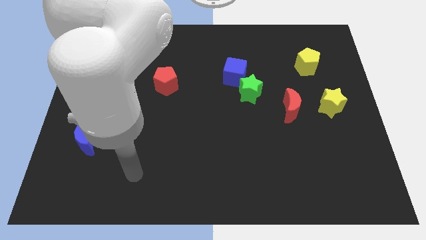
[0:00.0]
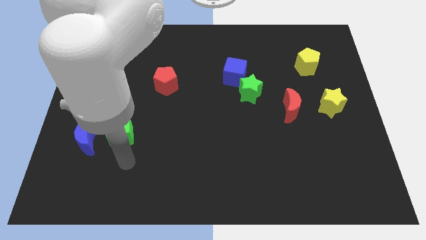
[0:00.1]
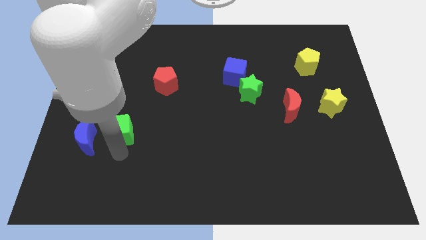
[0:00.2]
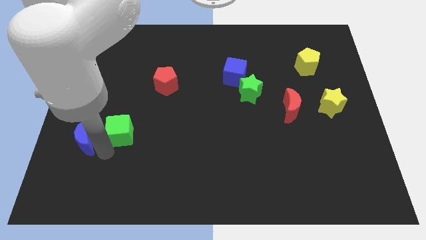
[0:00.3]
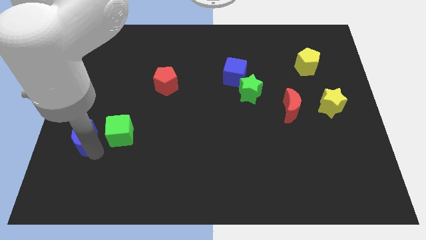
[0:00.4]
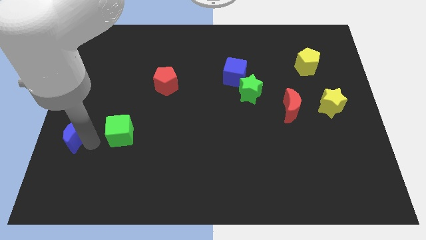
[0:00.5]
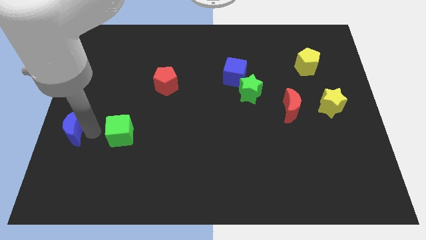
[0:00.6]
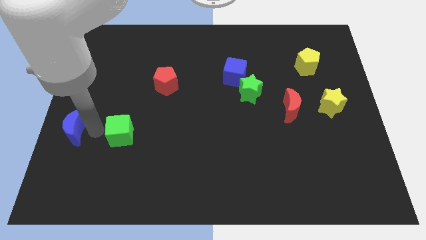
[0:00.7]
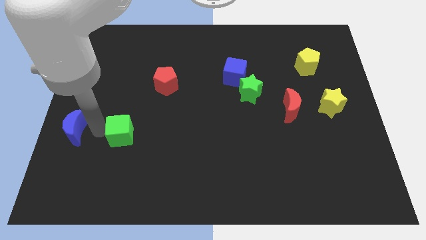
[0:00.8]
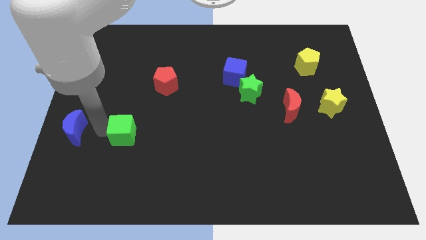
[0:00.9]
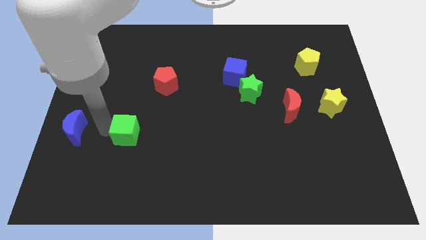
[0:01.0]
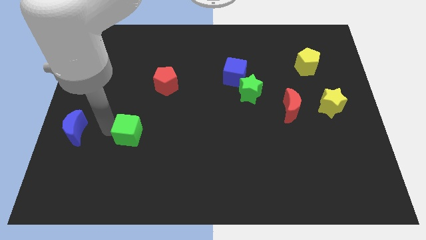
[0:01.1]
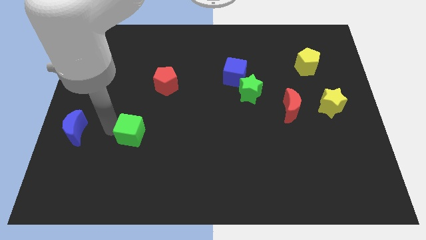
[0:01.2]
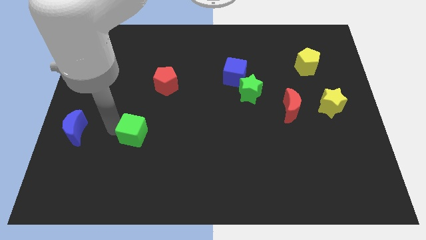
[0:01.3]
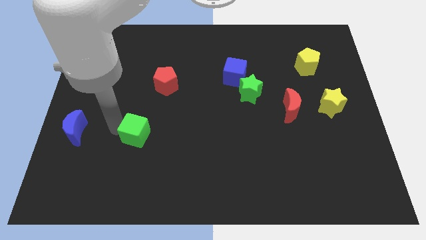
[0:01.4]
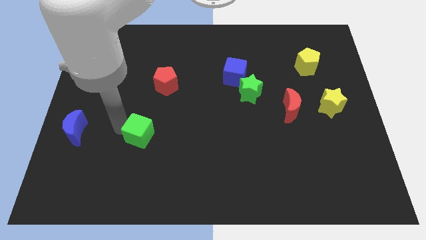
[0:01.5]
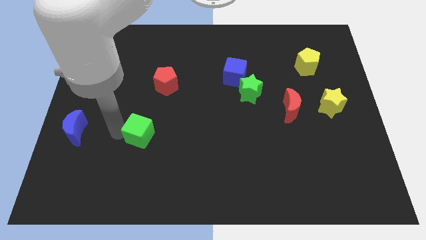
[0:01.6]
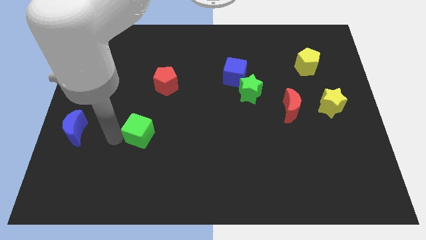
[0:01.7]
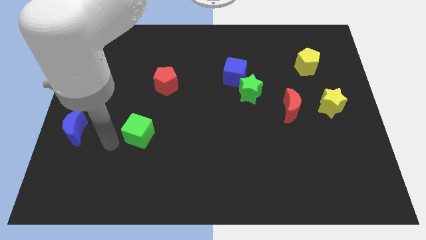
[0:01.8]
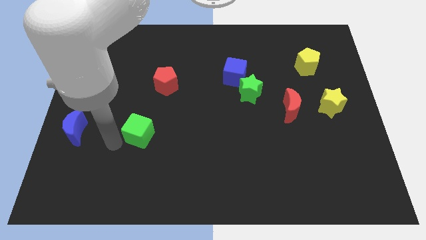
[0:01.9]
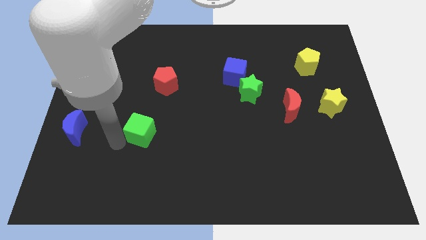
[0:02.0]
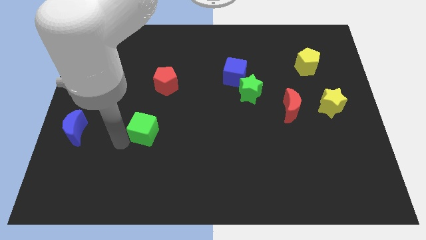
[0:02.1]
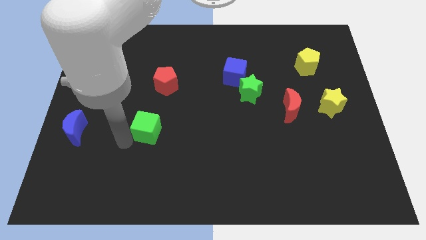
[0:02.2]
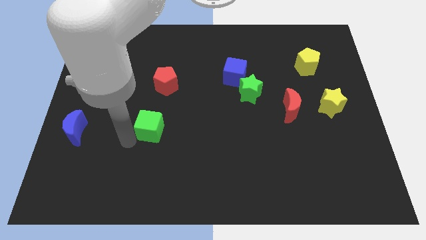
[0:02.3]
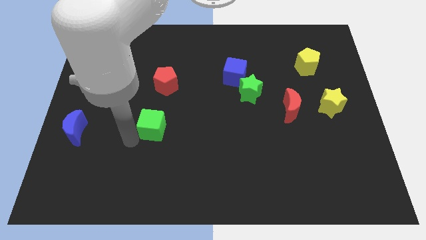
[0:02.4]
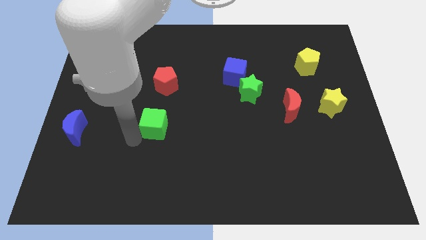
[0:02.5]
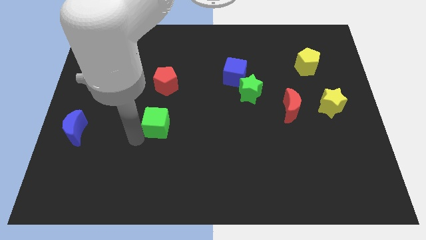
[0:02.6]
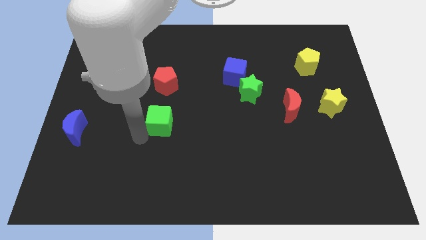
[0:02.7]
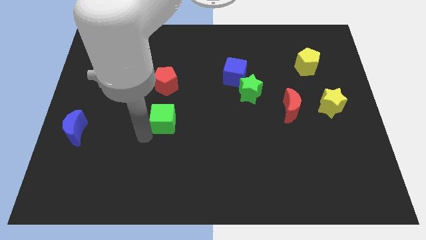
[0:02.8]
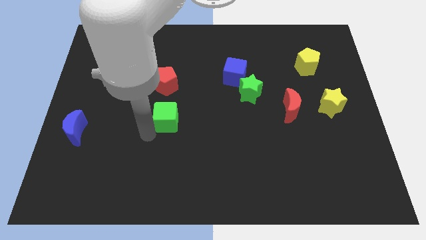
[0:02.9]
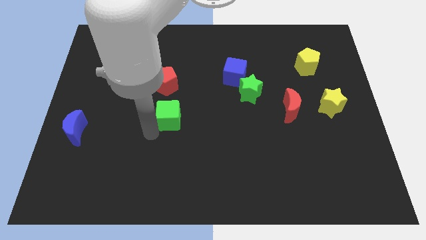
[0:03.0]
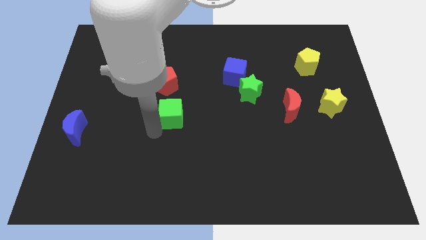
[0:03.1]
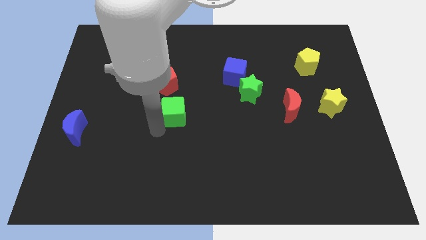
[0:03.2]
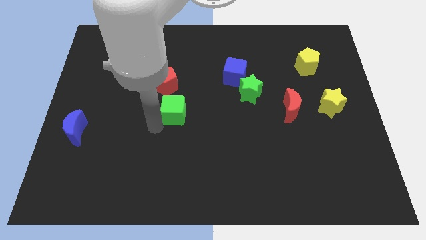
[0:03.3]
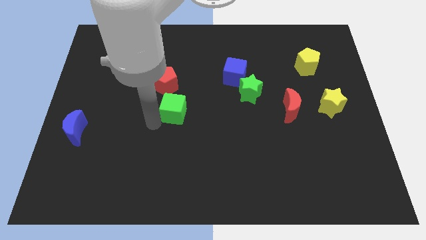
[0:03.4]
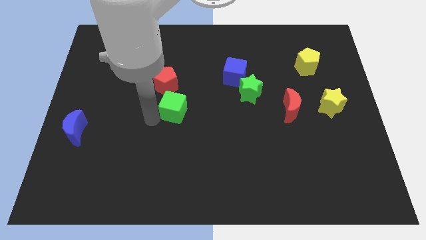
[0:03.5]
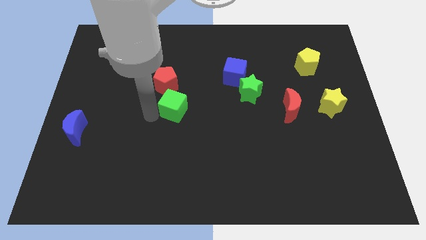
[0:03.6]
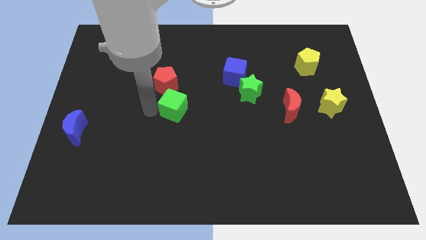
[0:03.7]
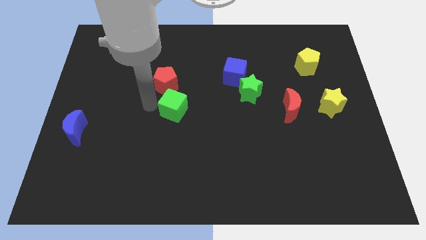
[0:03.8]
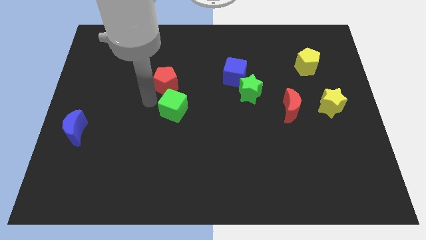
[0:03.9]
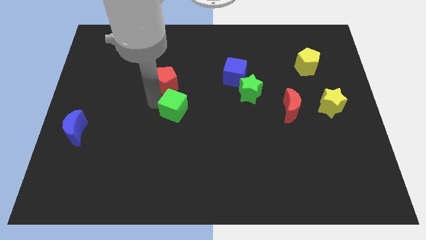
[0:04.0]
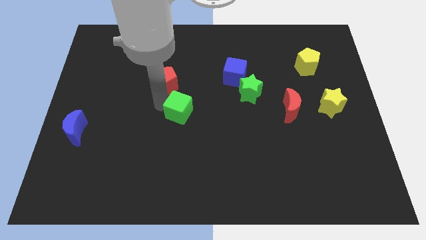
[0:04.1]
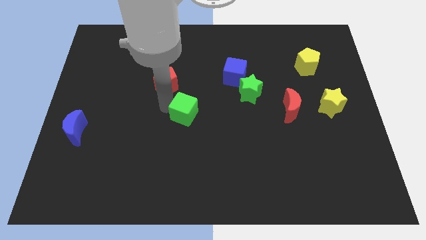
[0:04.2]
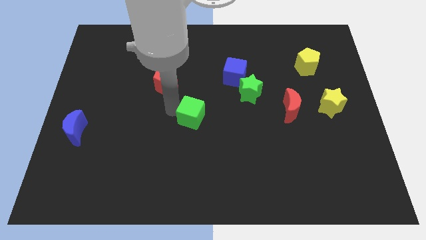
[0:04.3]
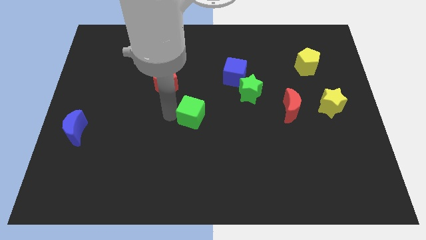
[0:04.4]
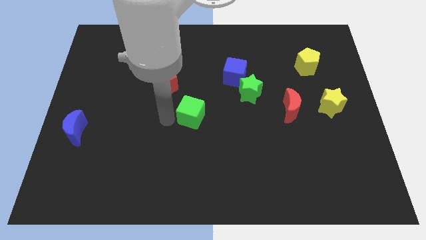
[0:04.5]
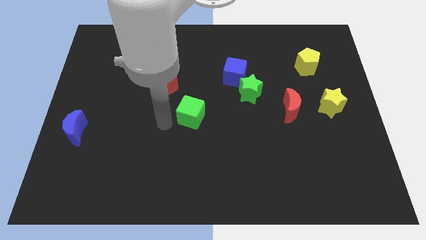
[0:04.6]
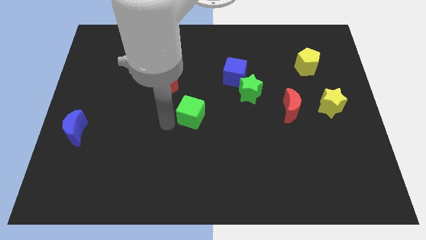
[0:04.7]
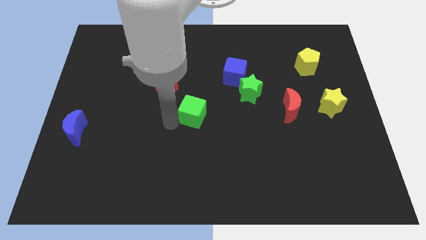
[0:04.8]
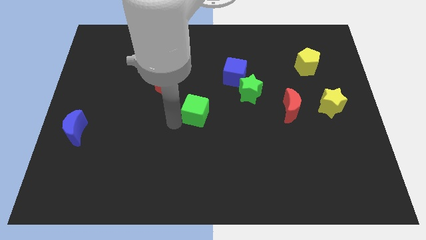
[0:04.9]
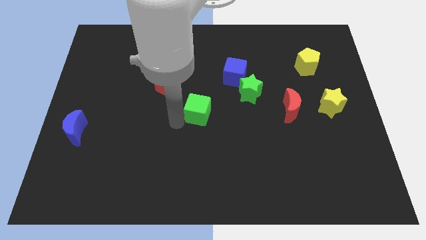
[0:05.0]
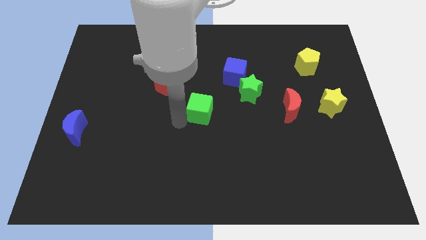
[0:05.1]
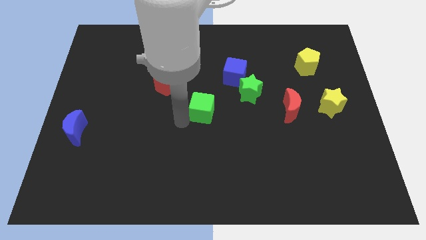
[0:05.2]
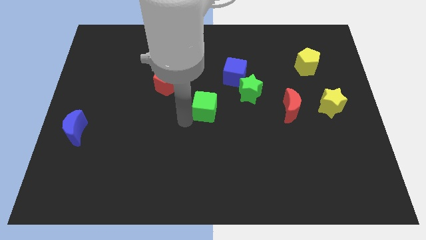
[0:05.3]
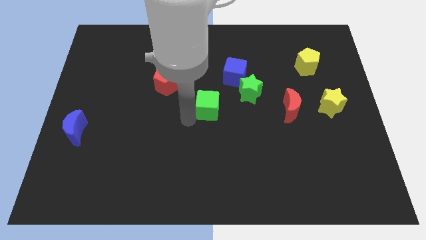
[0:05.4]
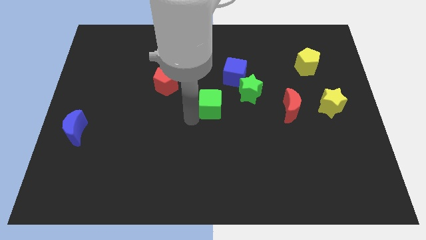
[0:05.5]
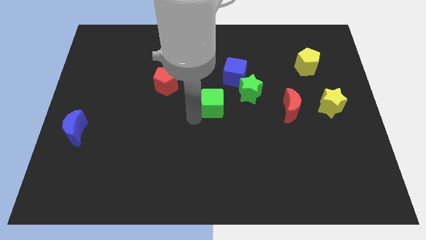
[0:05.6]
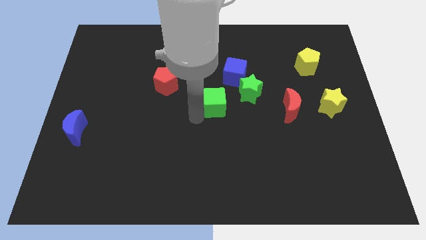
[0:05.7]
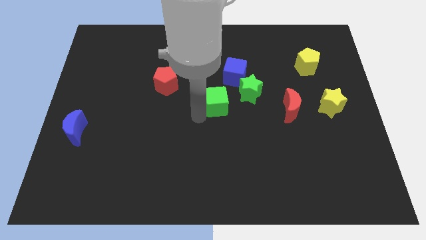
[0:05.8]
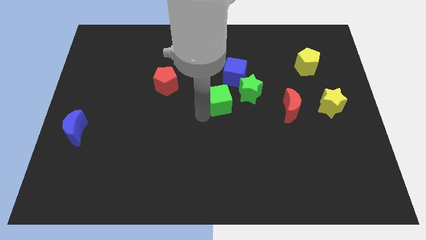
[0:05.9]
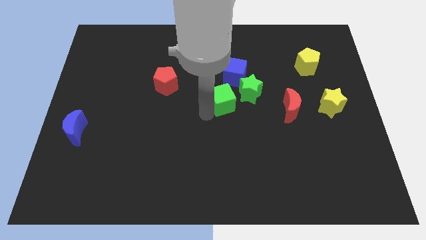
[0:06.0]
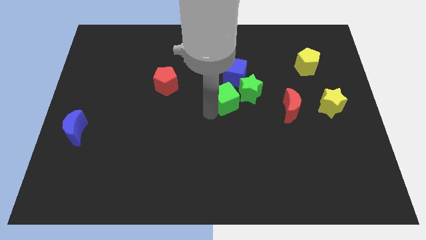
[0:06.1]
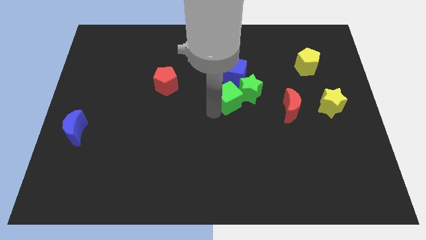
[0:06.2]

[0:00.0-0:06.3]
slide the green cube towards the green star
